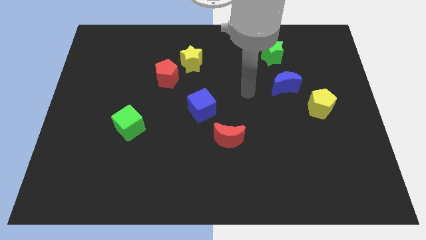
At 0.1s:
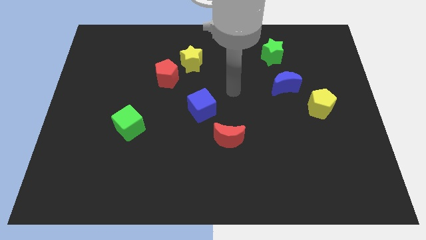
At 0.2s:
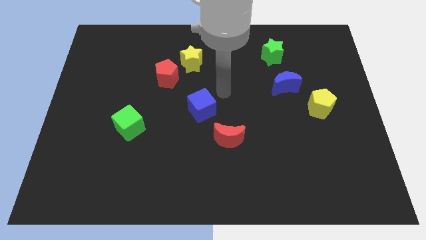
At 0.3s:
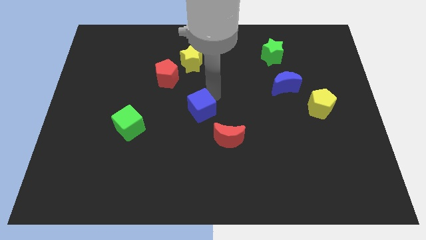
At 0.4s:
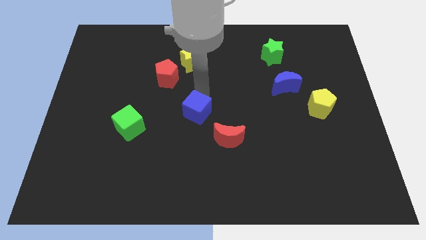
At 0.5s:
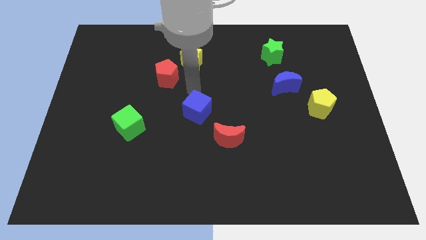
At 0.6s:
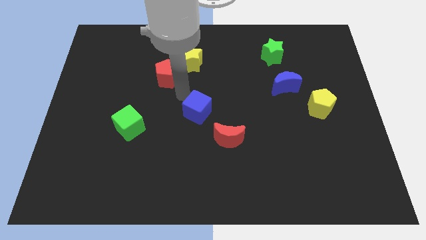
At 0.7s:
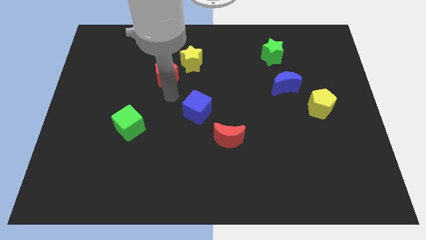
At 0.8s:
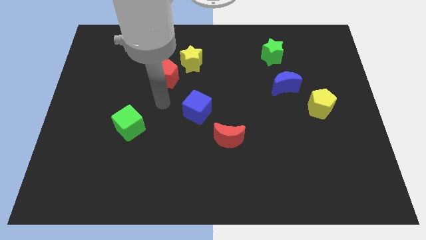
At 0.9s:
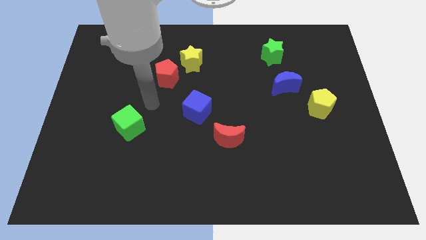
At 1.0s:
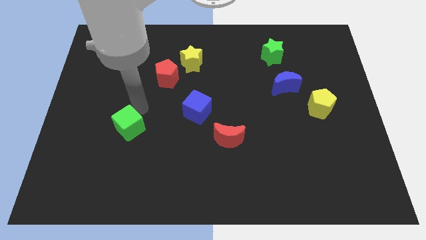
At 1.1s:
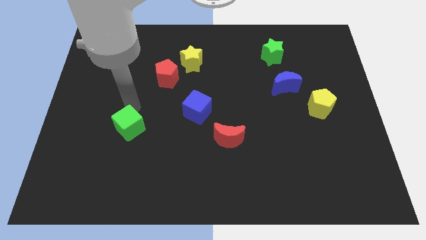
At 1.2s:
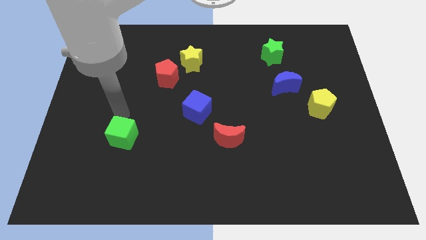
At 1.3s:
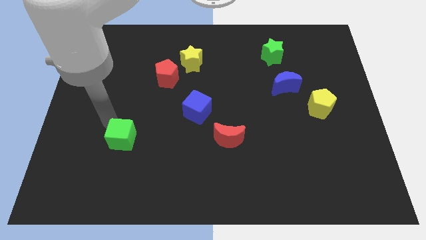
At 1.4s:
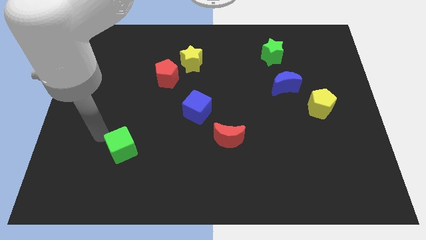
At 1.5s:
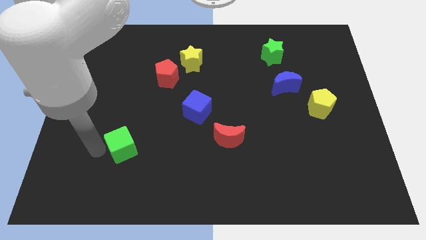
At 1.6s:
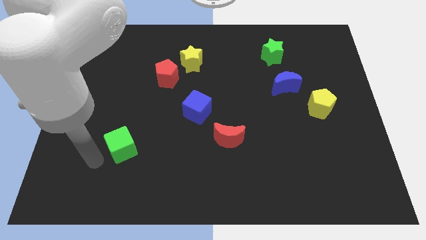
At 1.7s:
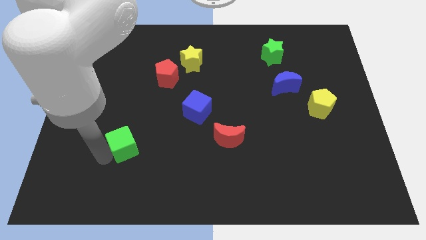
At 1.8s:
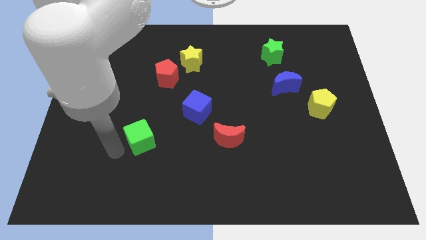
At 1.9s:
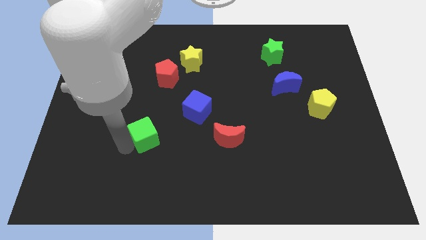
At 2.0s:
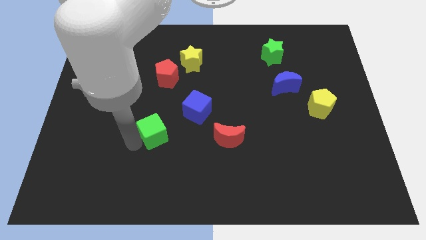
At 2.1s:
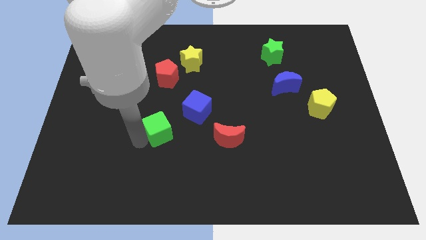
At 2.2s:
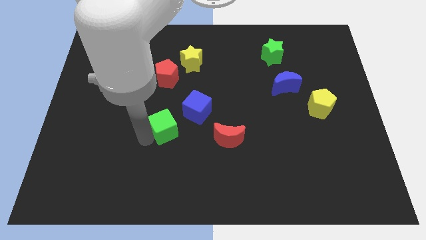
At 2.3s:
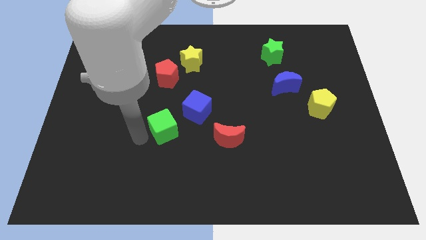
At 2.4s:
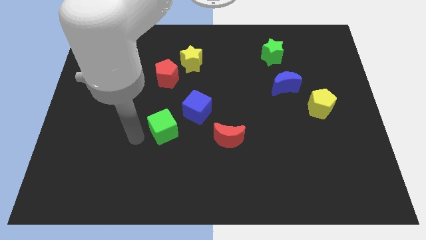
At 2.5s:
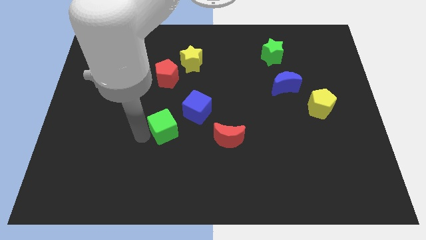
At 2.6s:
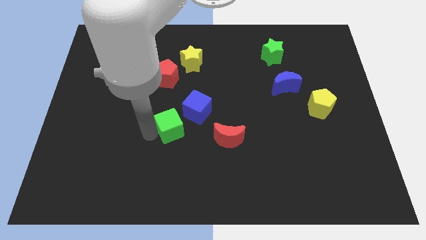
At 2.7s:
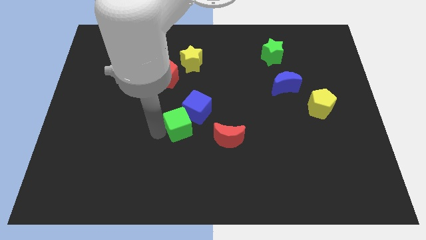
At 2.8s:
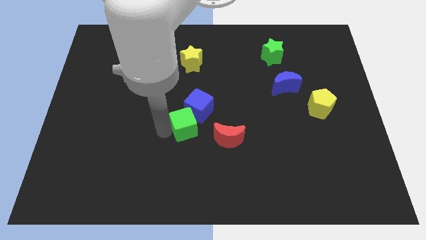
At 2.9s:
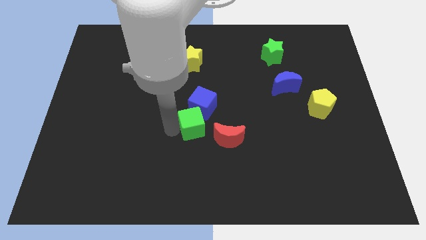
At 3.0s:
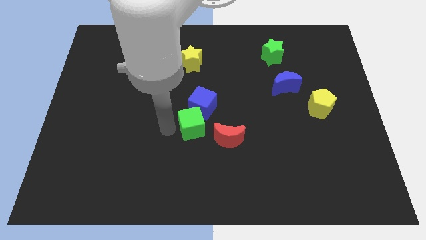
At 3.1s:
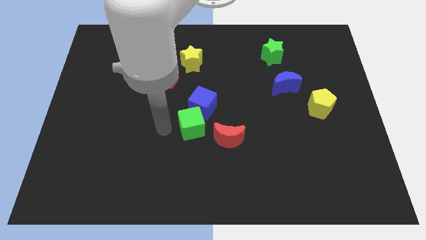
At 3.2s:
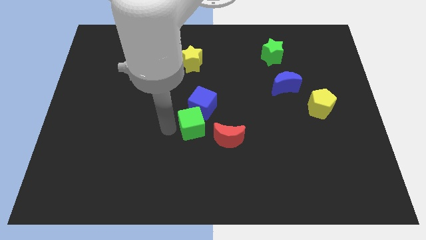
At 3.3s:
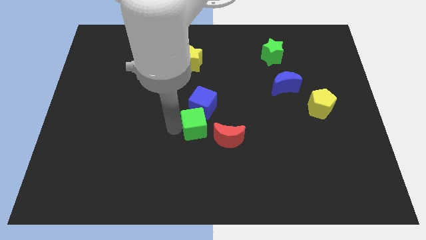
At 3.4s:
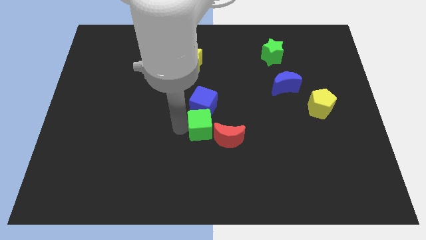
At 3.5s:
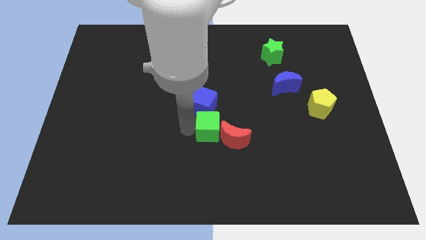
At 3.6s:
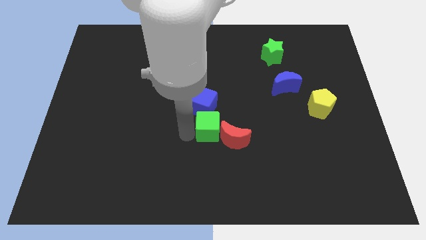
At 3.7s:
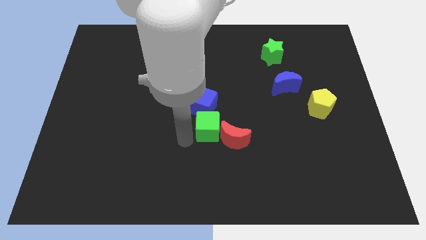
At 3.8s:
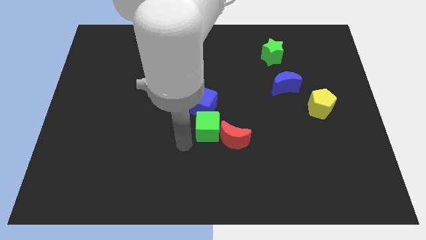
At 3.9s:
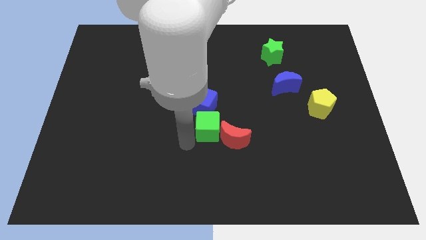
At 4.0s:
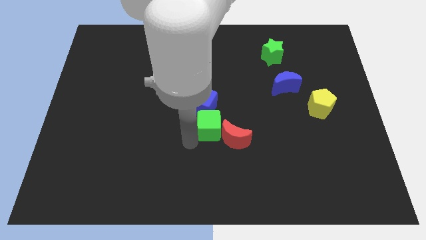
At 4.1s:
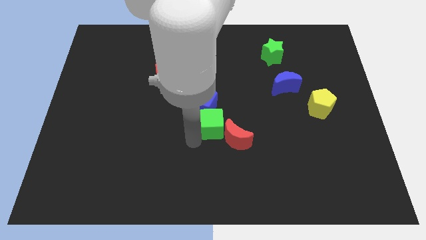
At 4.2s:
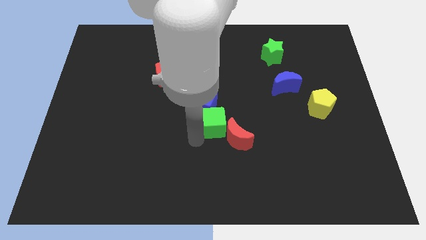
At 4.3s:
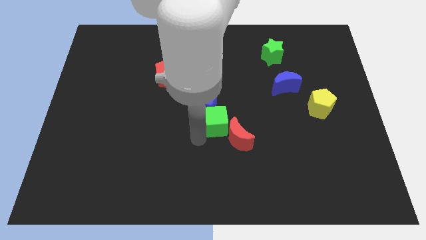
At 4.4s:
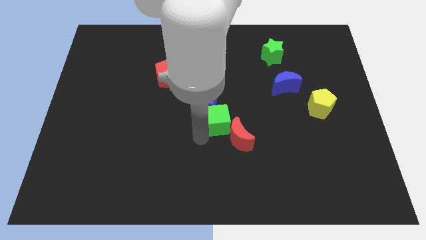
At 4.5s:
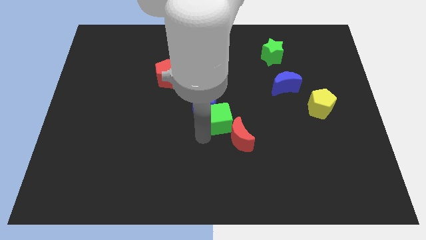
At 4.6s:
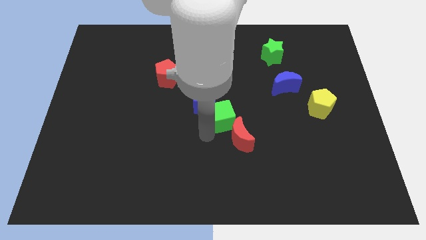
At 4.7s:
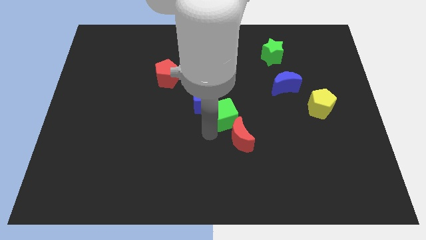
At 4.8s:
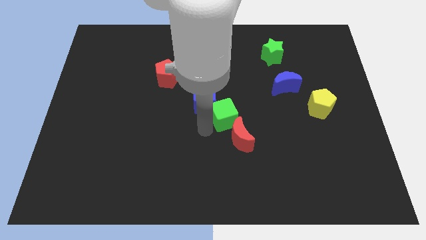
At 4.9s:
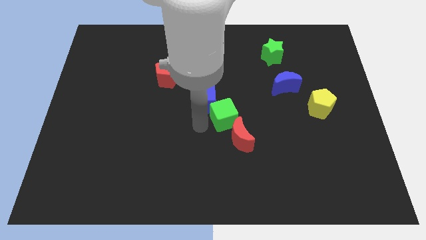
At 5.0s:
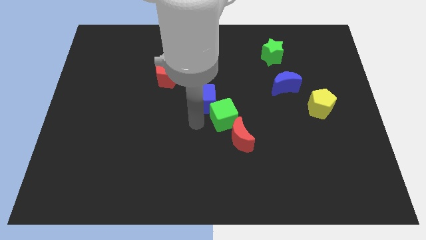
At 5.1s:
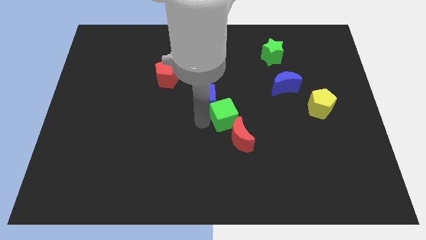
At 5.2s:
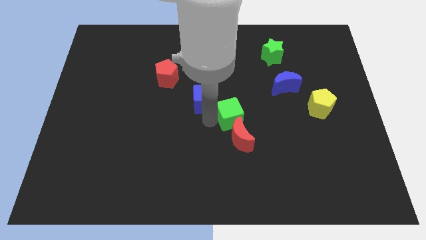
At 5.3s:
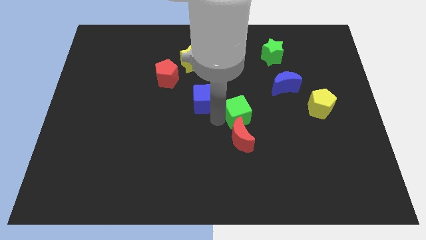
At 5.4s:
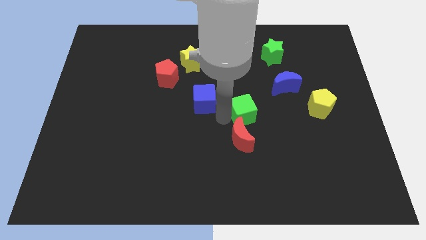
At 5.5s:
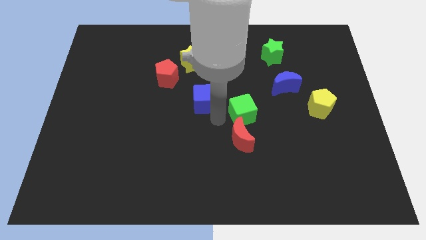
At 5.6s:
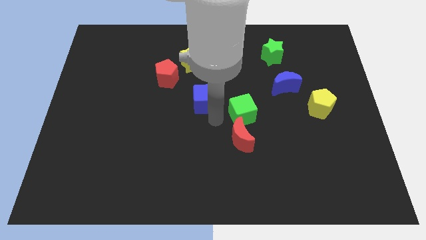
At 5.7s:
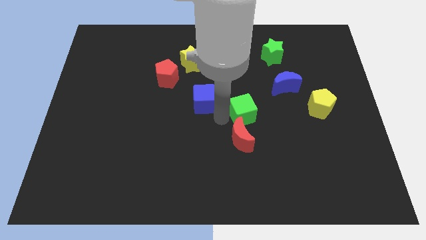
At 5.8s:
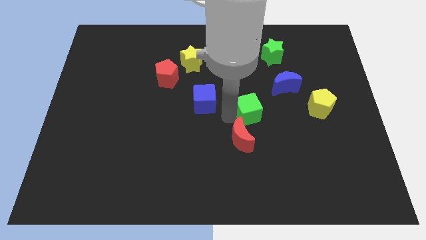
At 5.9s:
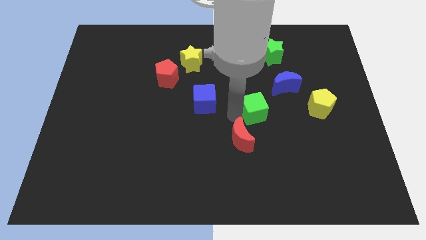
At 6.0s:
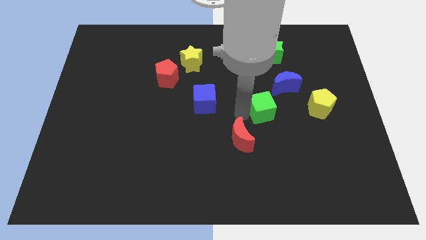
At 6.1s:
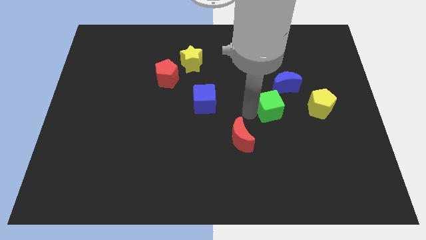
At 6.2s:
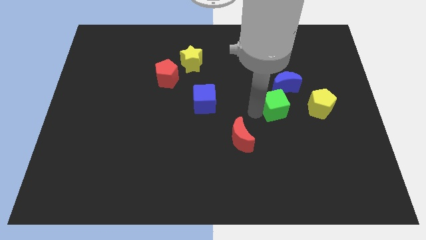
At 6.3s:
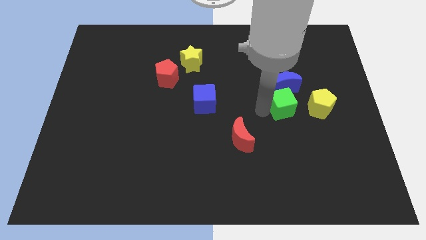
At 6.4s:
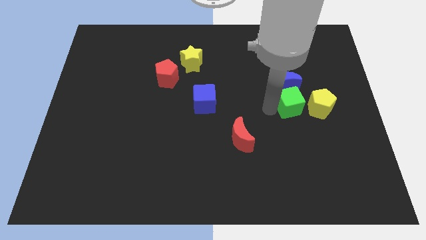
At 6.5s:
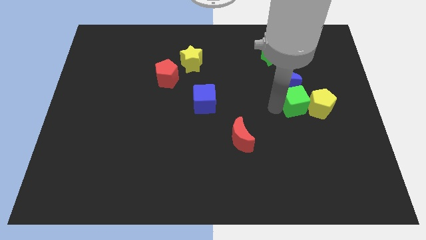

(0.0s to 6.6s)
slide the green cube close to the yellow pentagon

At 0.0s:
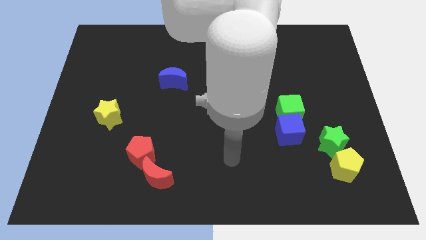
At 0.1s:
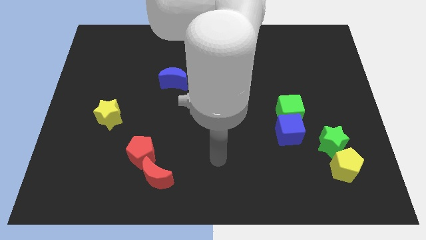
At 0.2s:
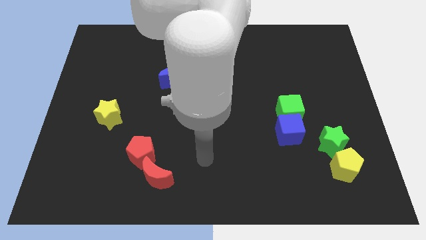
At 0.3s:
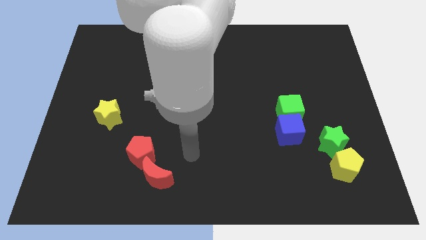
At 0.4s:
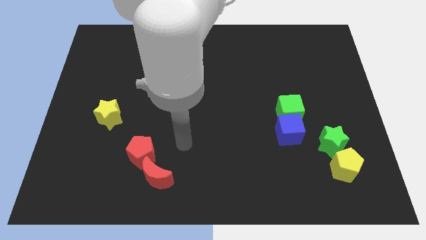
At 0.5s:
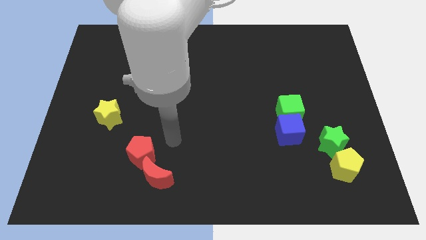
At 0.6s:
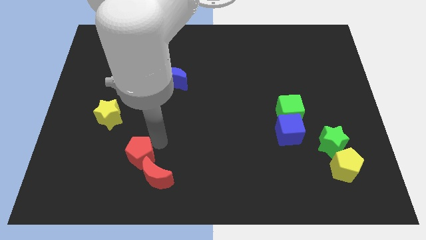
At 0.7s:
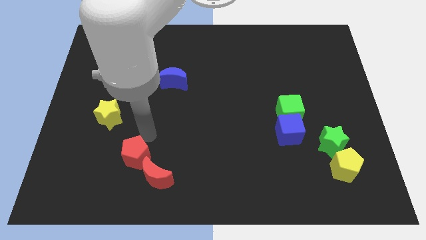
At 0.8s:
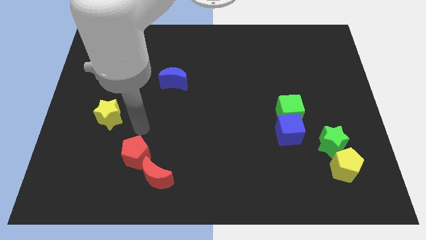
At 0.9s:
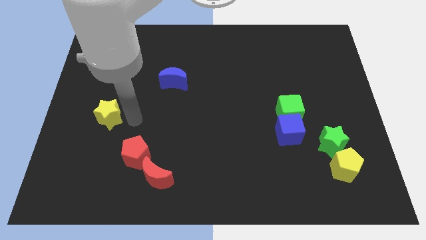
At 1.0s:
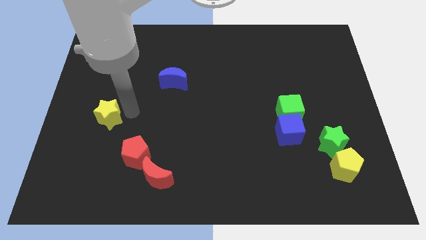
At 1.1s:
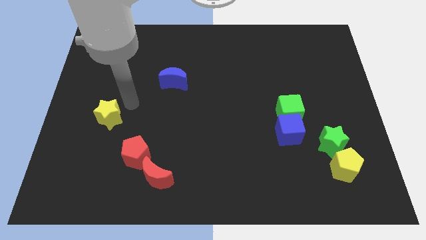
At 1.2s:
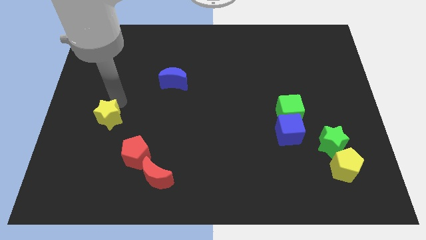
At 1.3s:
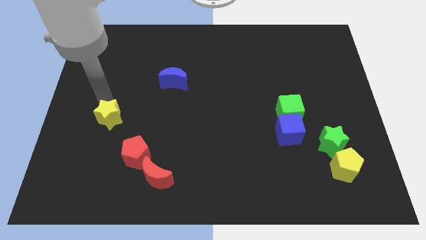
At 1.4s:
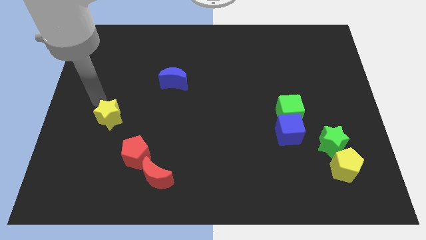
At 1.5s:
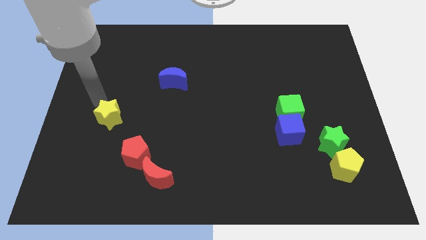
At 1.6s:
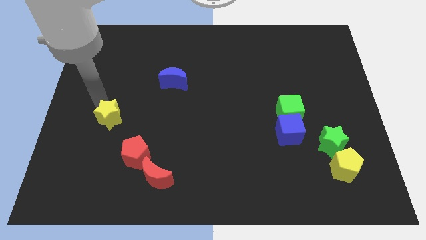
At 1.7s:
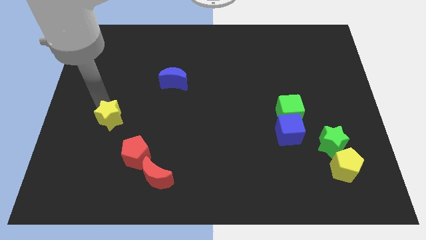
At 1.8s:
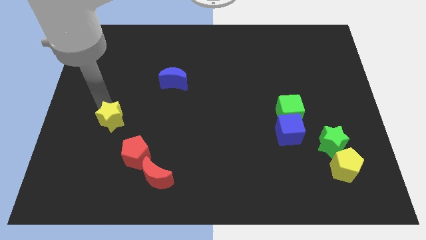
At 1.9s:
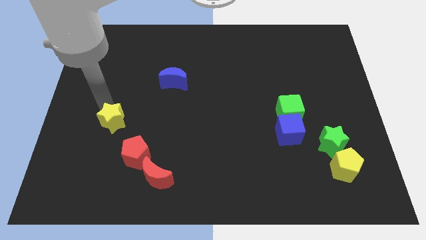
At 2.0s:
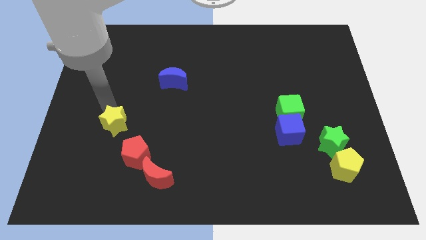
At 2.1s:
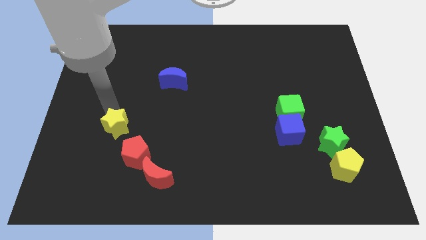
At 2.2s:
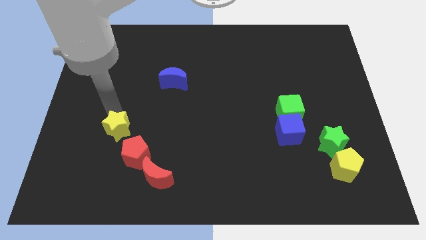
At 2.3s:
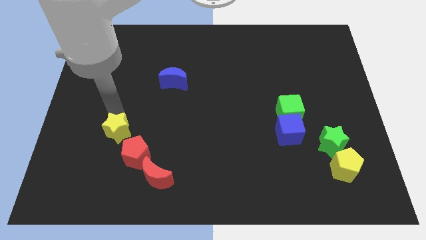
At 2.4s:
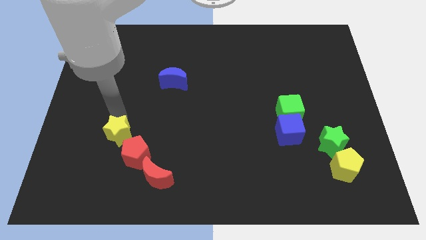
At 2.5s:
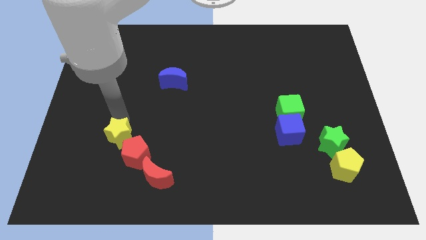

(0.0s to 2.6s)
put the yellow star to the red pentagon
